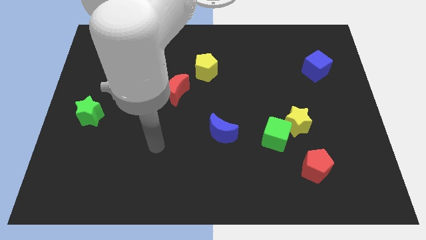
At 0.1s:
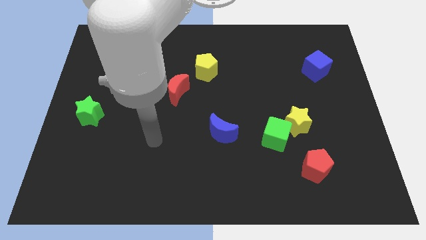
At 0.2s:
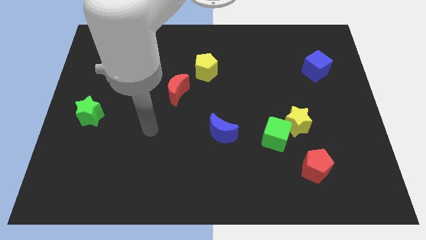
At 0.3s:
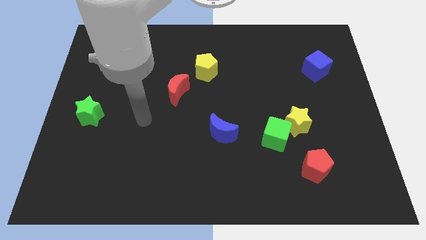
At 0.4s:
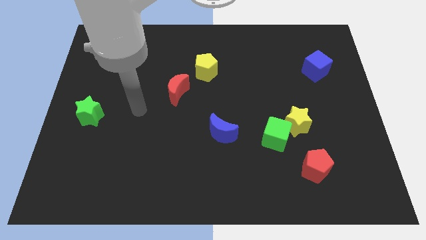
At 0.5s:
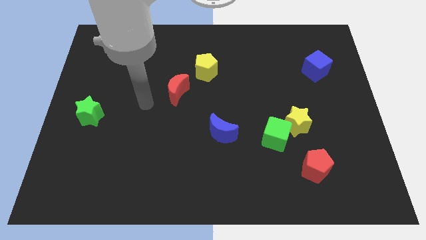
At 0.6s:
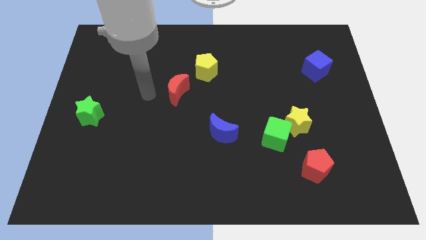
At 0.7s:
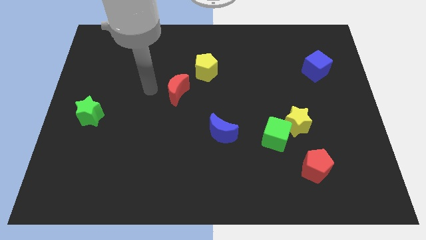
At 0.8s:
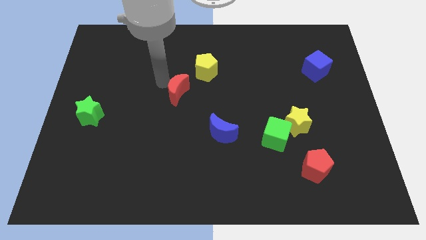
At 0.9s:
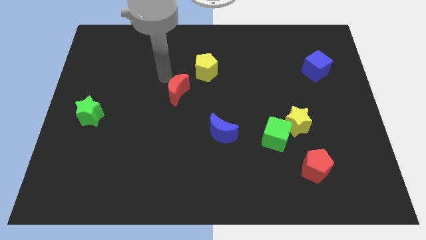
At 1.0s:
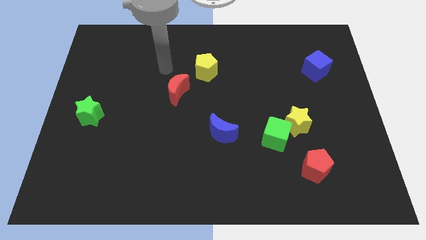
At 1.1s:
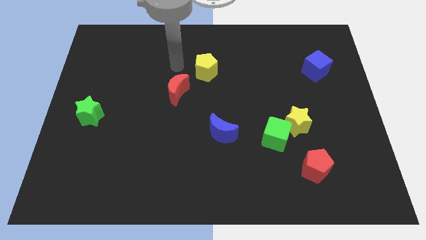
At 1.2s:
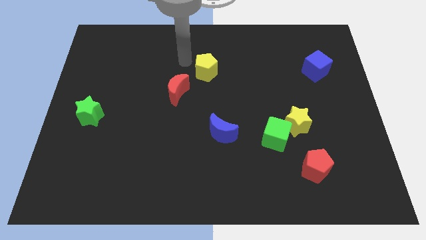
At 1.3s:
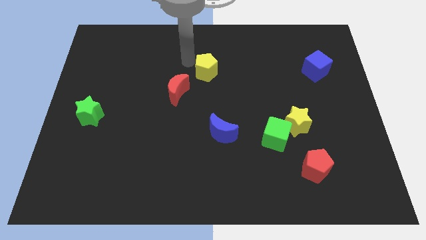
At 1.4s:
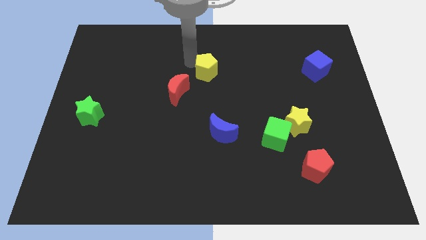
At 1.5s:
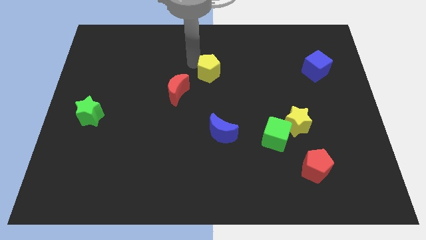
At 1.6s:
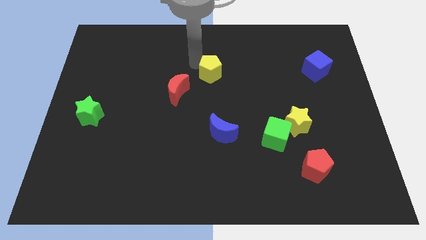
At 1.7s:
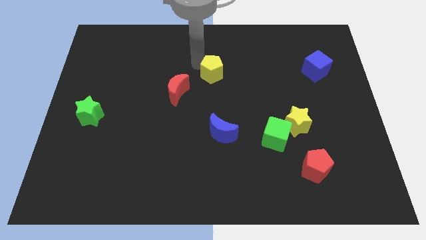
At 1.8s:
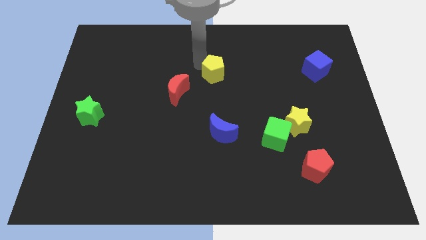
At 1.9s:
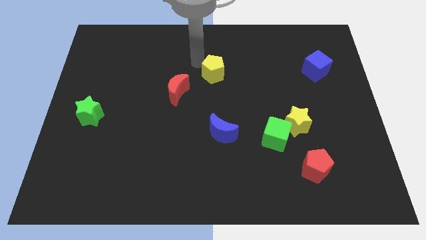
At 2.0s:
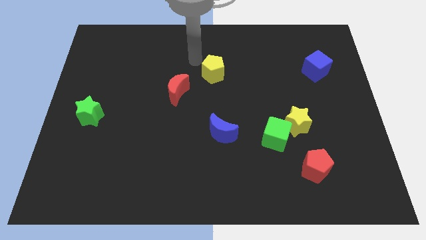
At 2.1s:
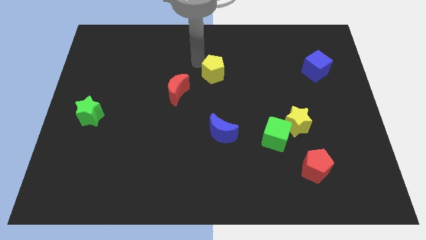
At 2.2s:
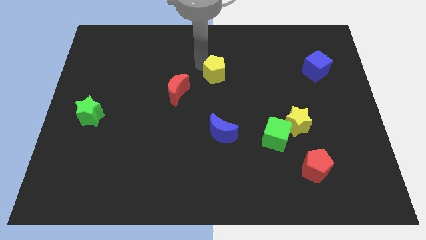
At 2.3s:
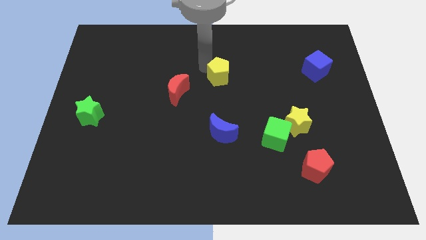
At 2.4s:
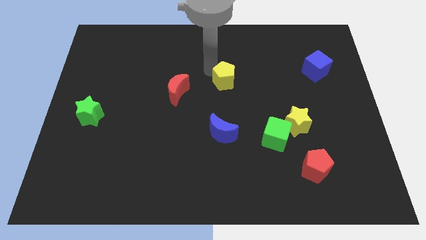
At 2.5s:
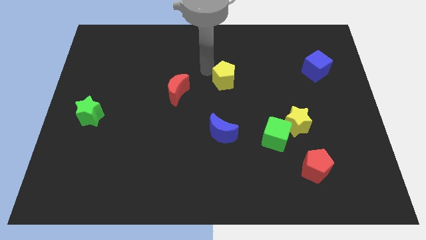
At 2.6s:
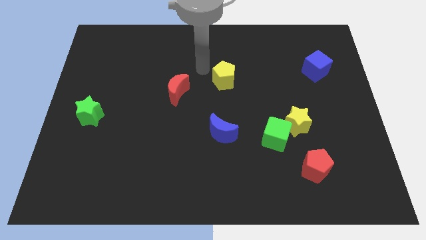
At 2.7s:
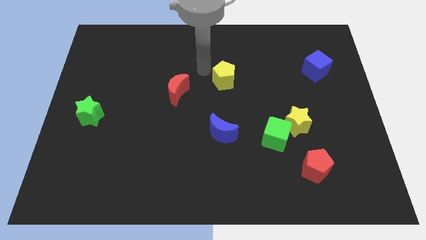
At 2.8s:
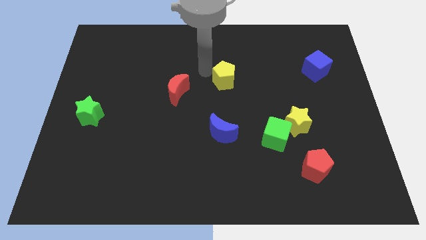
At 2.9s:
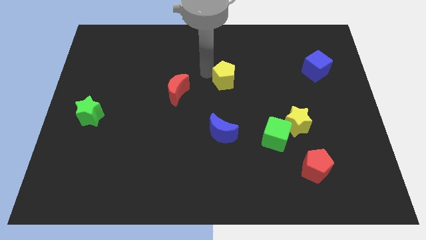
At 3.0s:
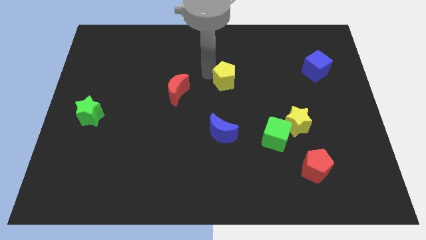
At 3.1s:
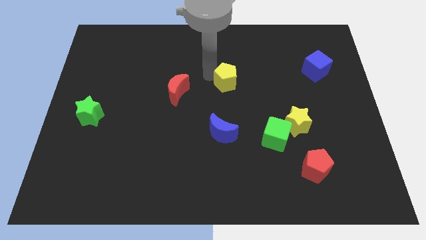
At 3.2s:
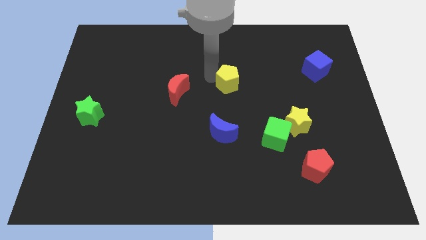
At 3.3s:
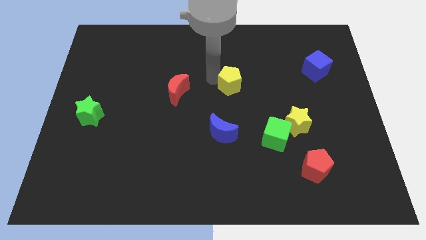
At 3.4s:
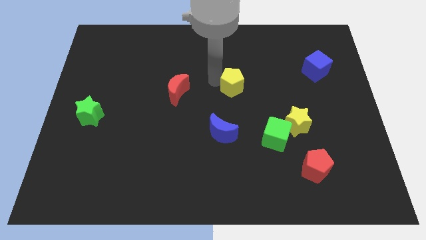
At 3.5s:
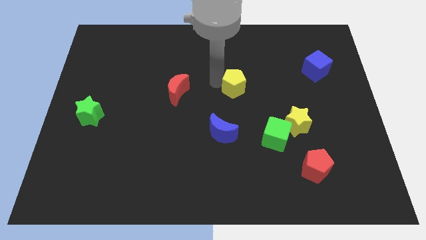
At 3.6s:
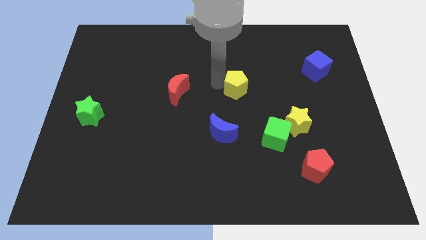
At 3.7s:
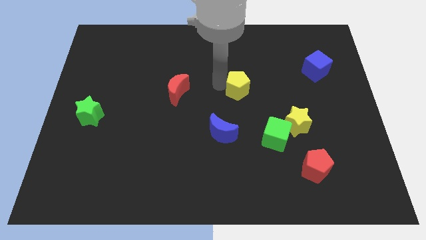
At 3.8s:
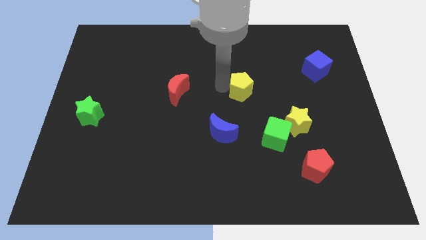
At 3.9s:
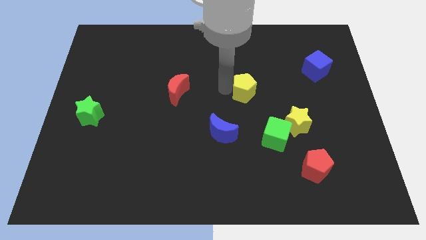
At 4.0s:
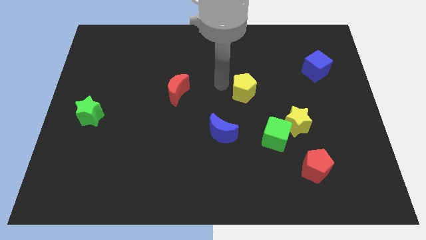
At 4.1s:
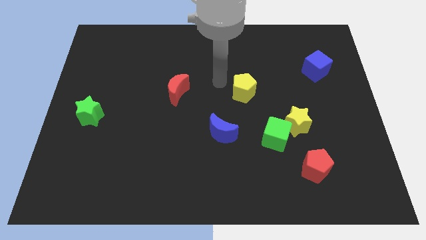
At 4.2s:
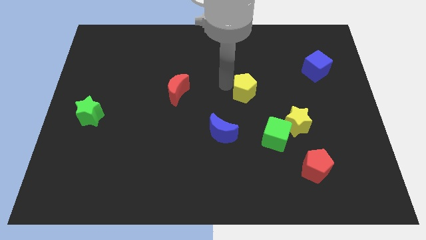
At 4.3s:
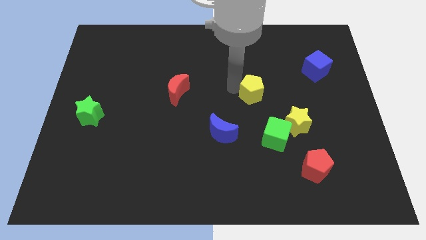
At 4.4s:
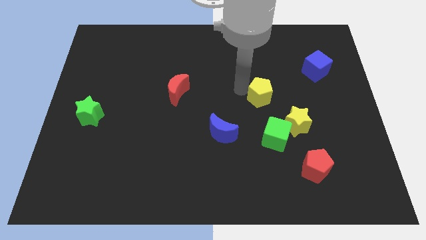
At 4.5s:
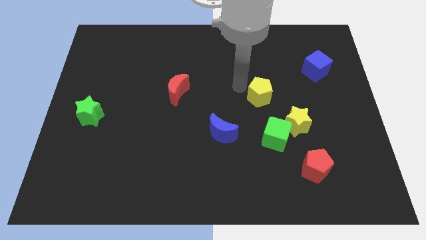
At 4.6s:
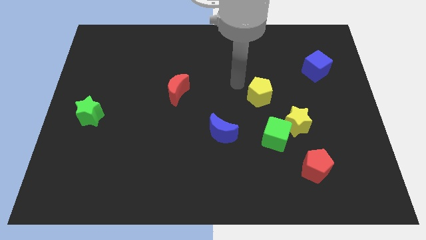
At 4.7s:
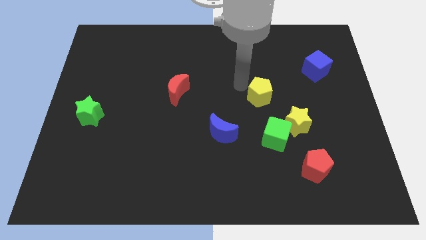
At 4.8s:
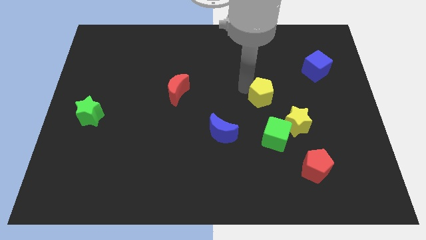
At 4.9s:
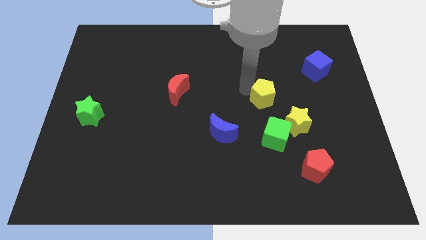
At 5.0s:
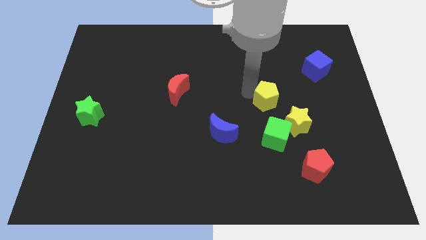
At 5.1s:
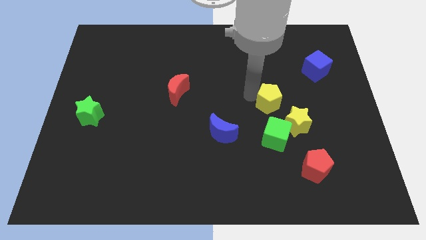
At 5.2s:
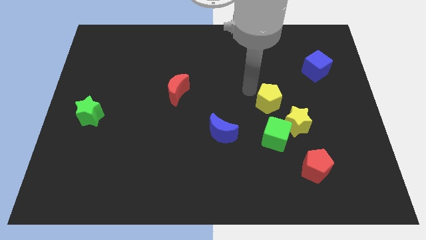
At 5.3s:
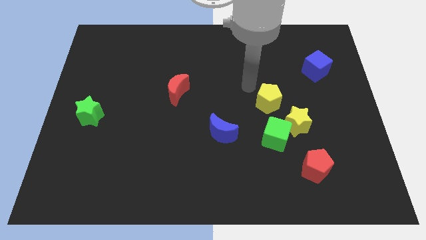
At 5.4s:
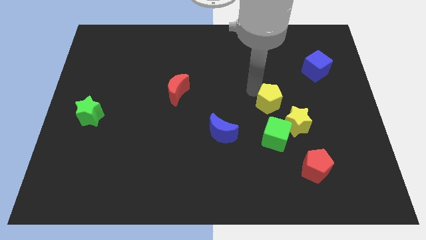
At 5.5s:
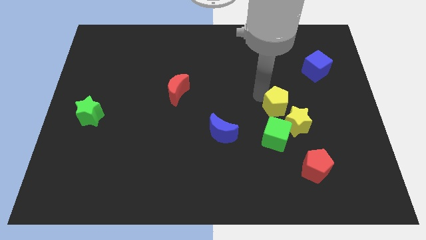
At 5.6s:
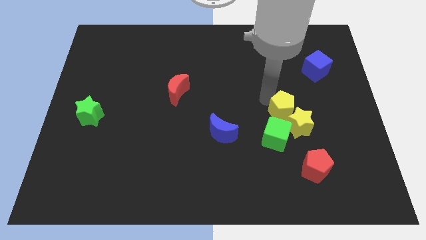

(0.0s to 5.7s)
put the yellow pentagon to the yellow star

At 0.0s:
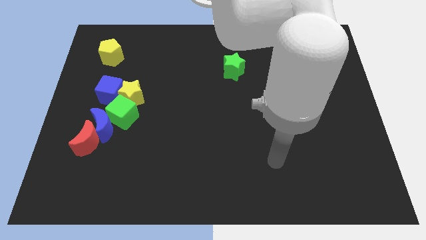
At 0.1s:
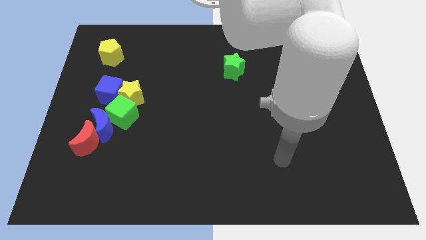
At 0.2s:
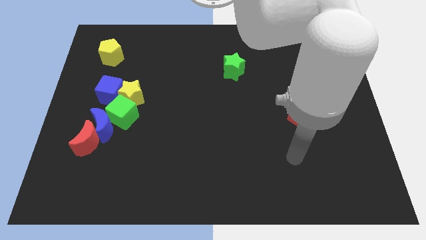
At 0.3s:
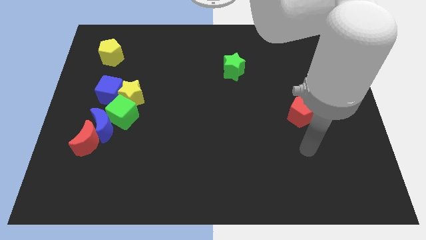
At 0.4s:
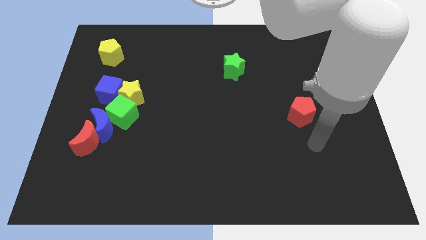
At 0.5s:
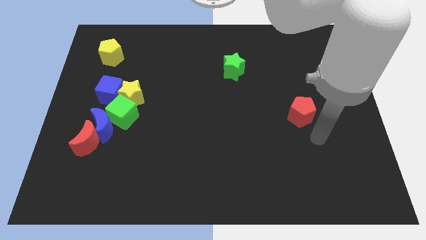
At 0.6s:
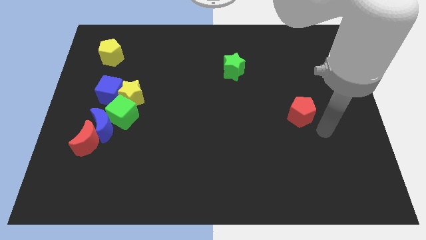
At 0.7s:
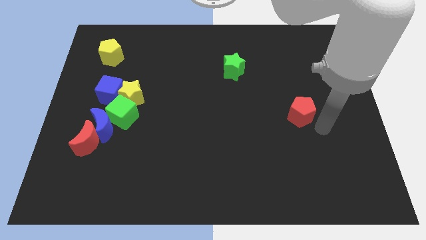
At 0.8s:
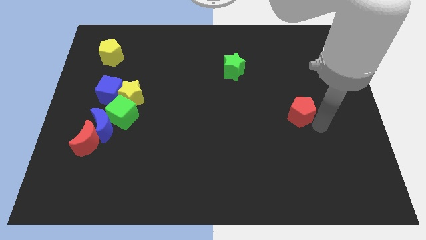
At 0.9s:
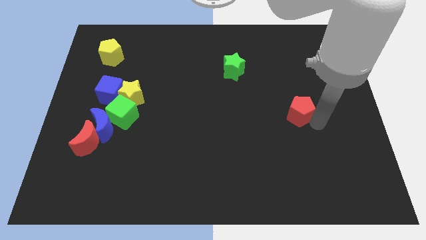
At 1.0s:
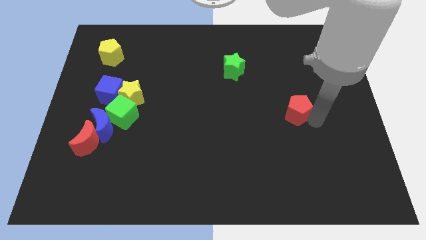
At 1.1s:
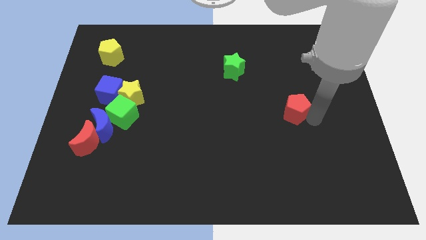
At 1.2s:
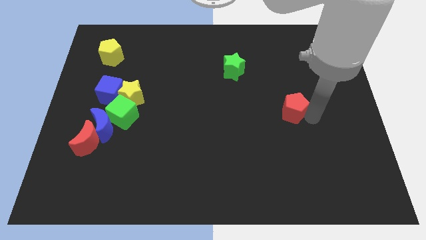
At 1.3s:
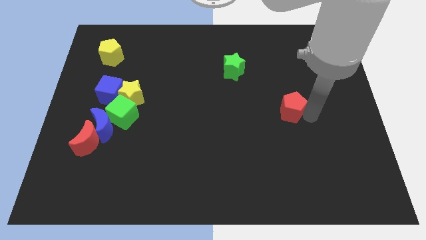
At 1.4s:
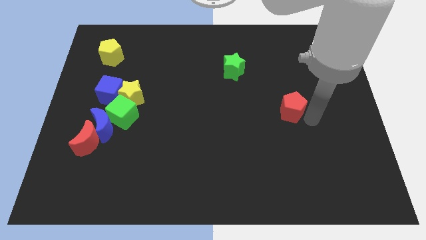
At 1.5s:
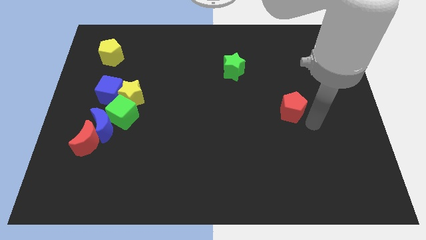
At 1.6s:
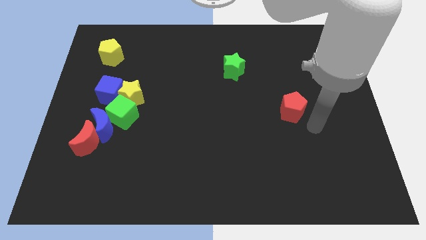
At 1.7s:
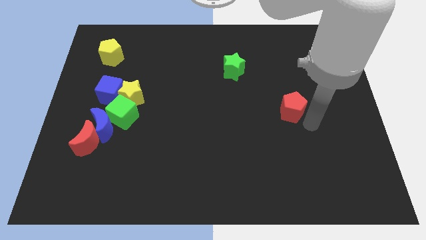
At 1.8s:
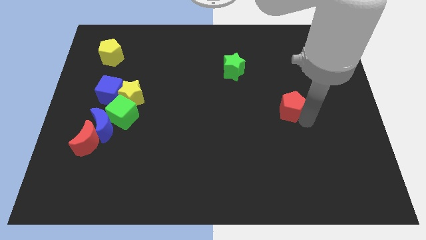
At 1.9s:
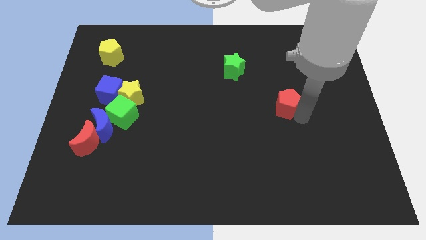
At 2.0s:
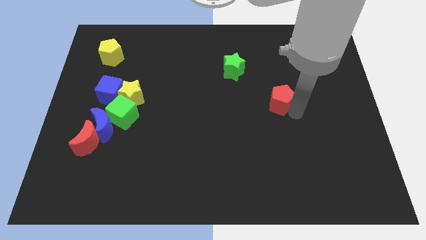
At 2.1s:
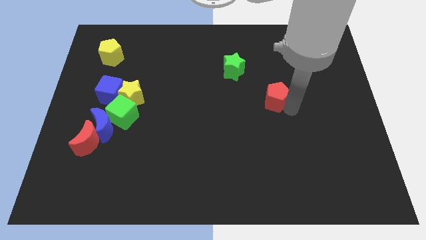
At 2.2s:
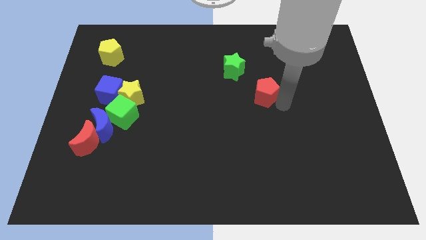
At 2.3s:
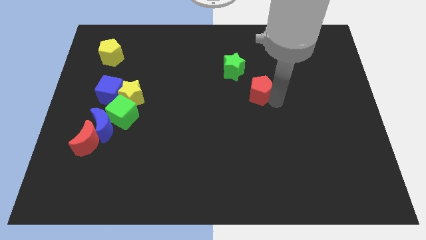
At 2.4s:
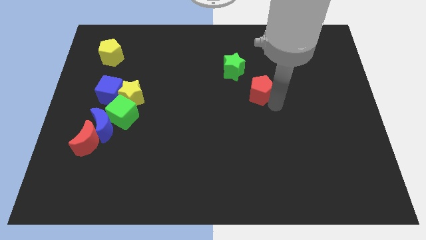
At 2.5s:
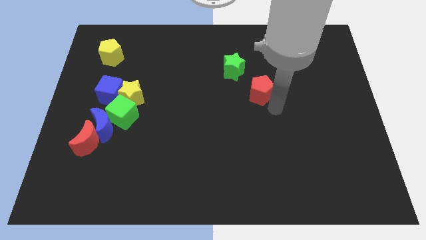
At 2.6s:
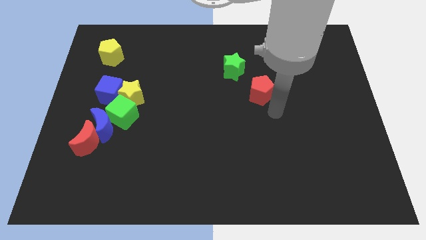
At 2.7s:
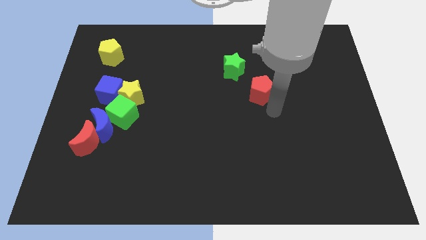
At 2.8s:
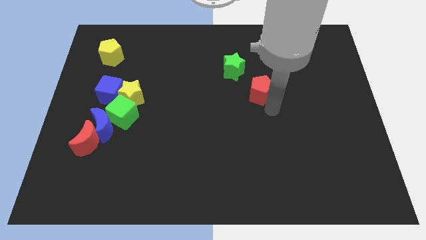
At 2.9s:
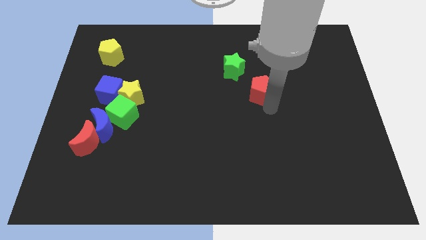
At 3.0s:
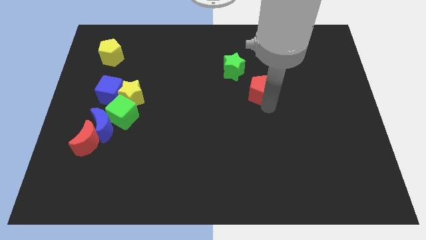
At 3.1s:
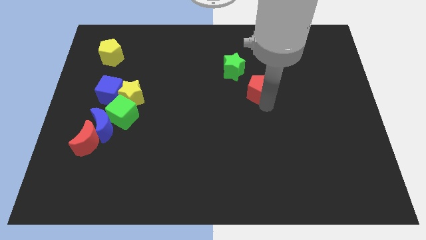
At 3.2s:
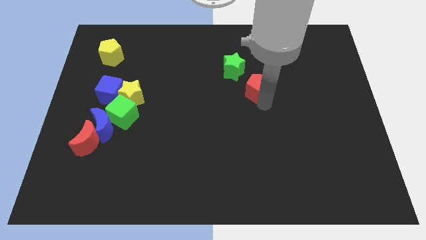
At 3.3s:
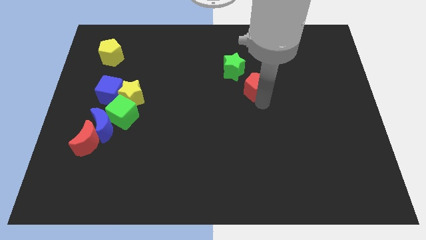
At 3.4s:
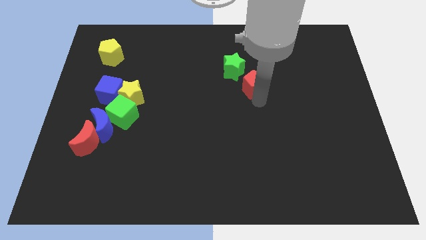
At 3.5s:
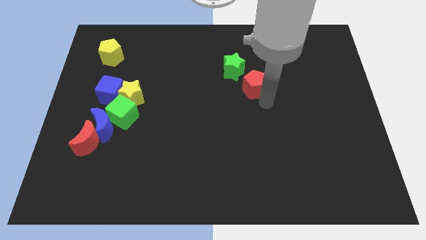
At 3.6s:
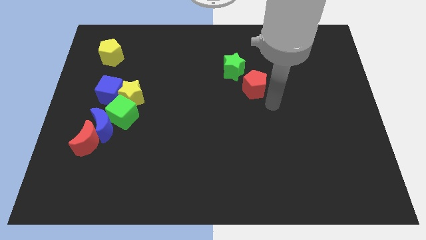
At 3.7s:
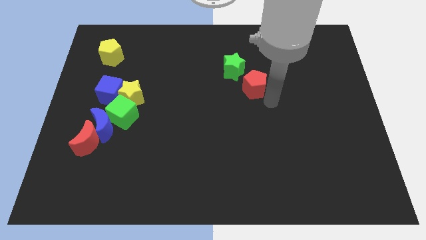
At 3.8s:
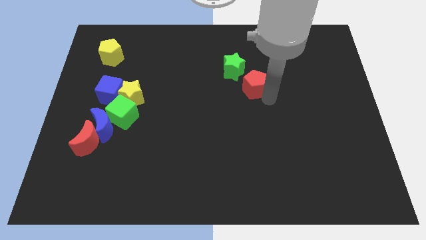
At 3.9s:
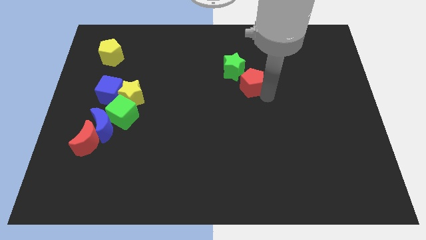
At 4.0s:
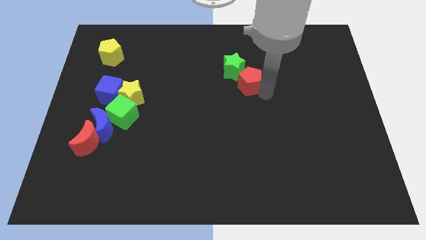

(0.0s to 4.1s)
put the red pentagon close to the green star
